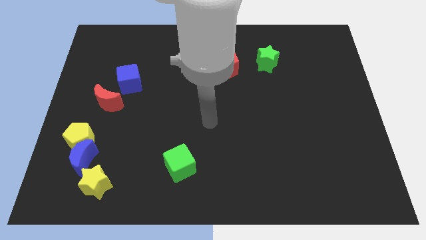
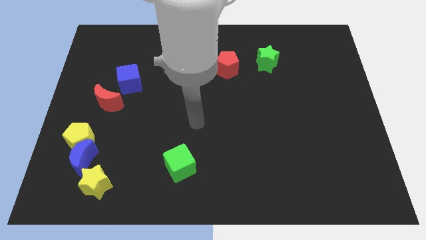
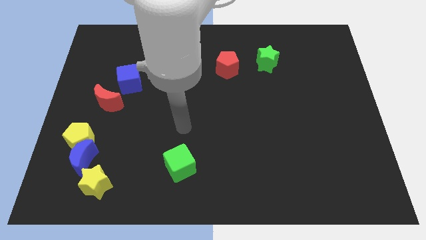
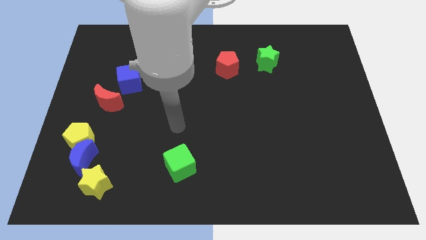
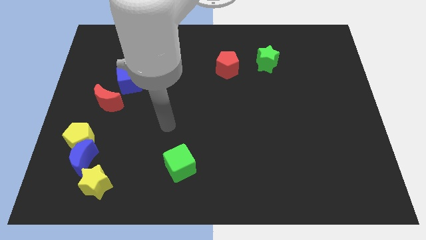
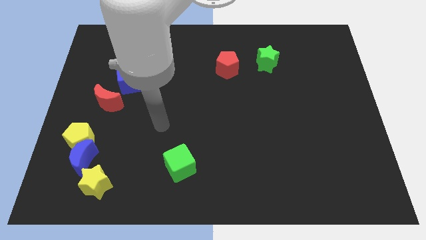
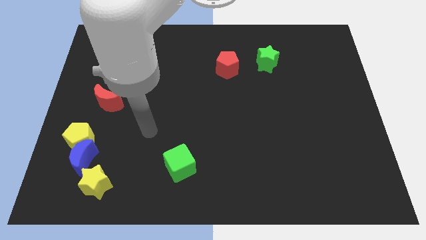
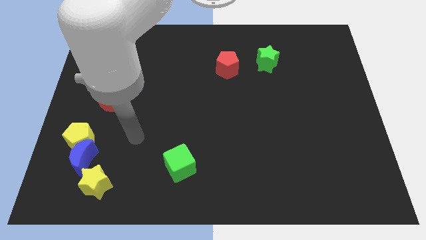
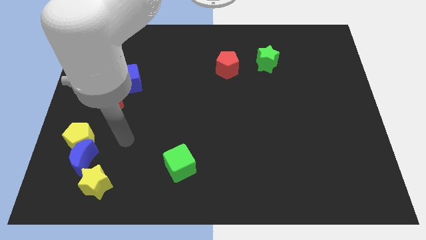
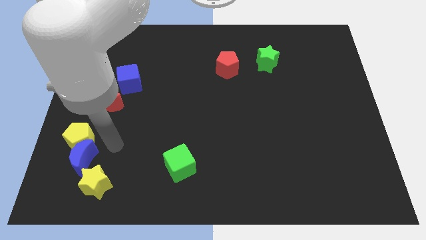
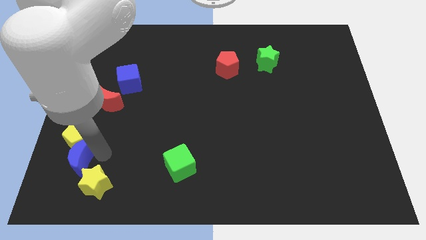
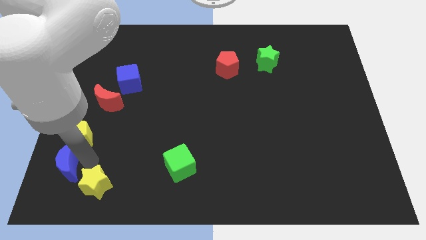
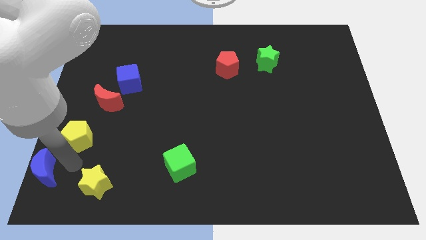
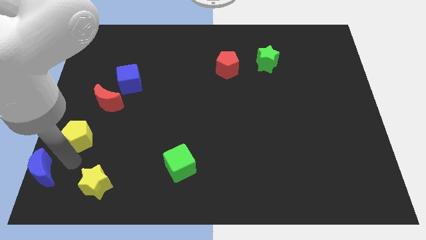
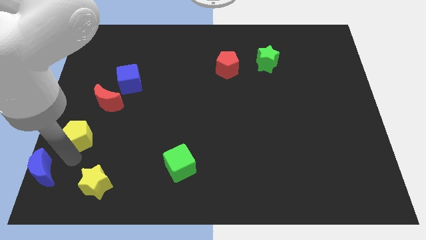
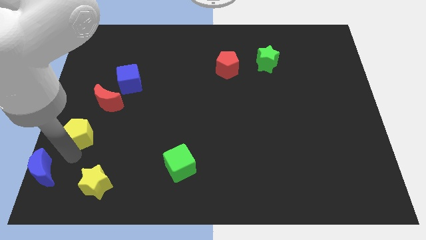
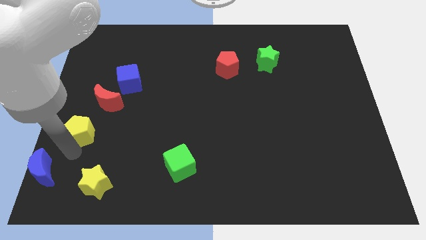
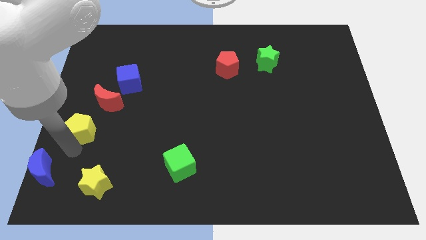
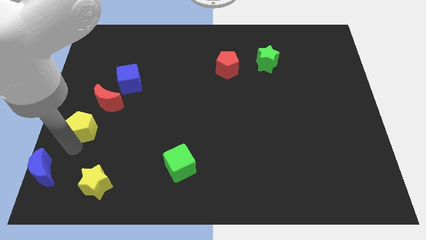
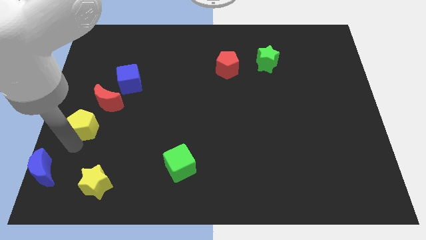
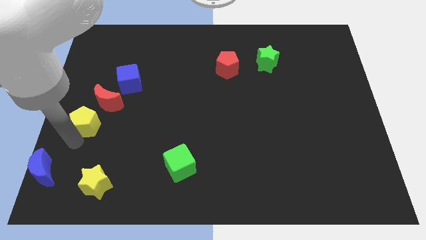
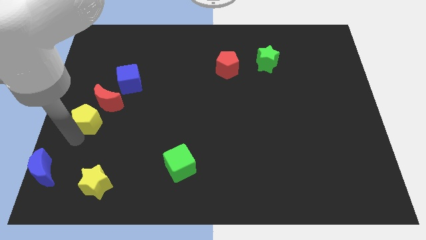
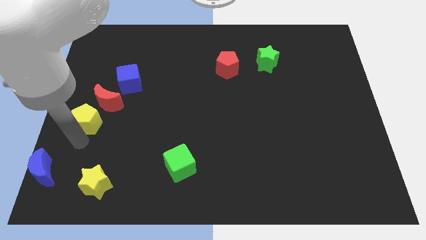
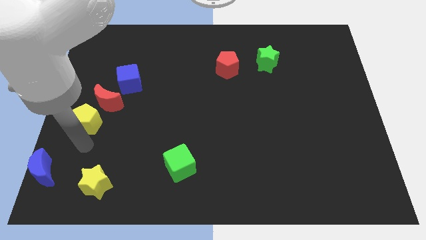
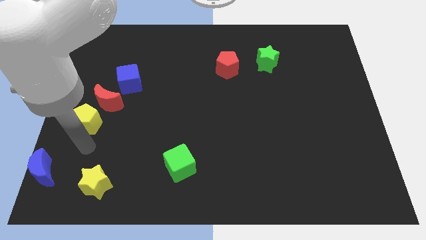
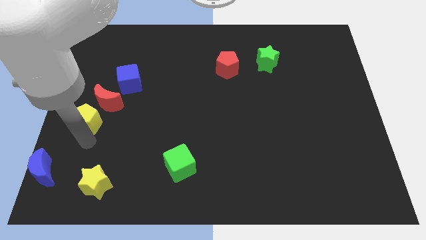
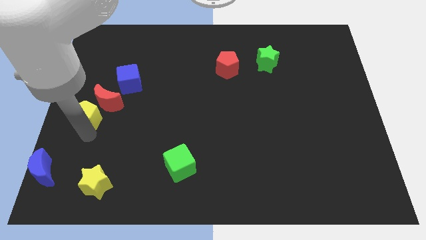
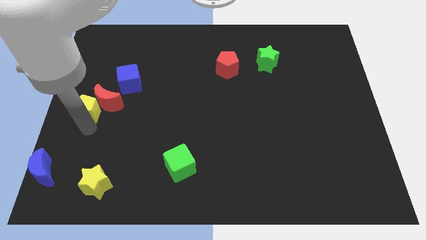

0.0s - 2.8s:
move the yellow pentagon a bit up

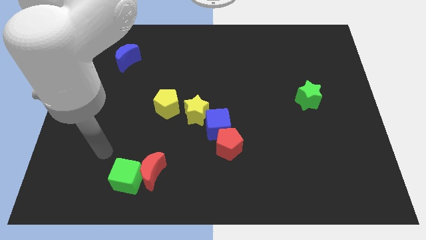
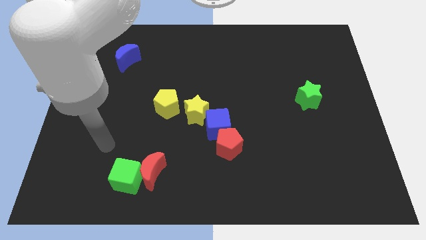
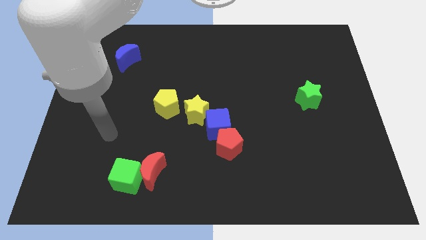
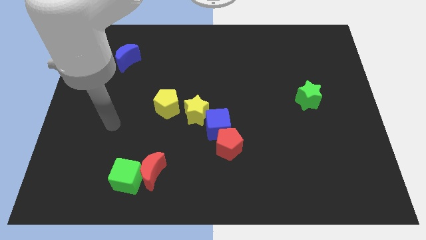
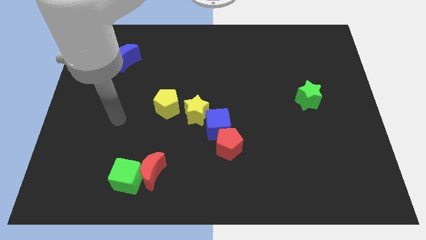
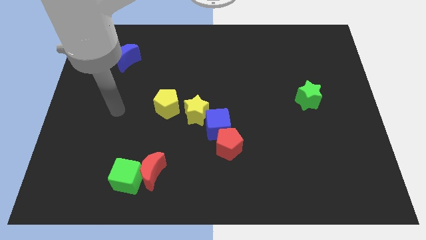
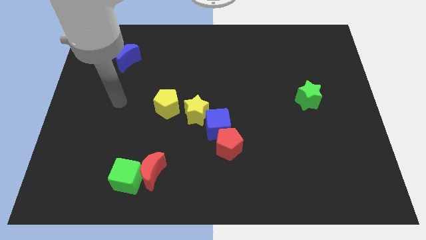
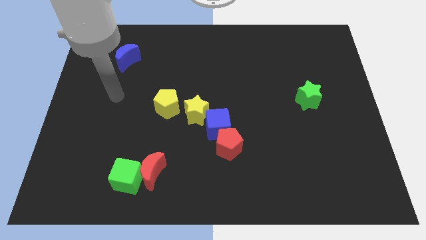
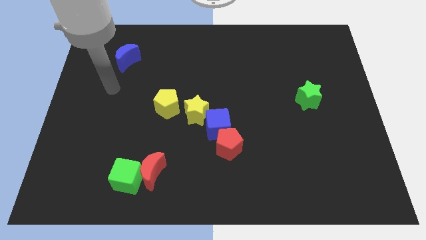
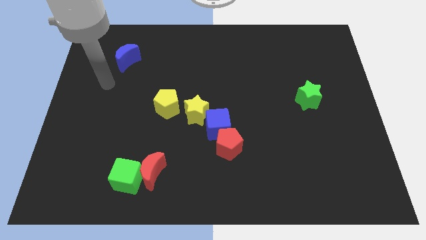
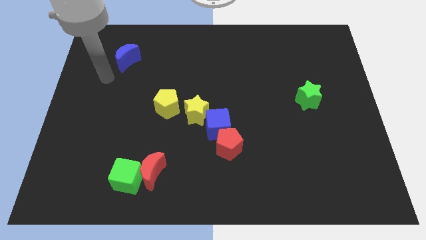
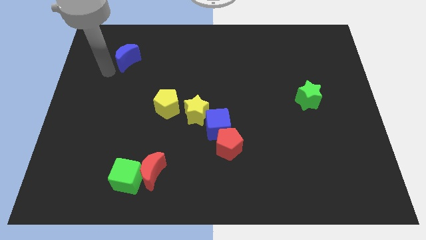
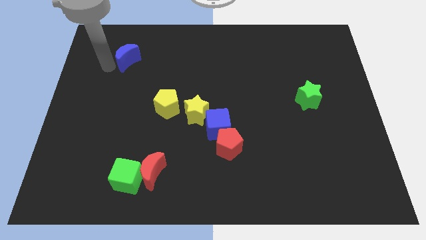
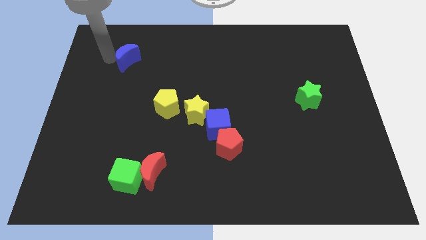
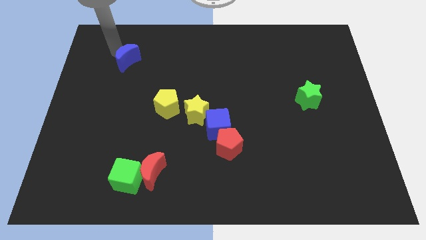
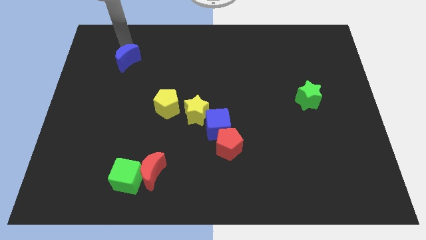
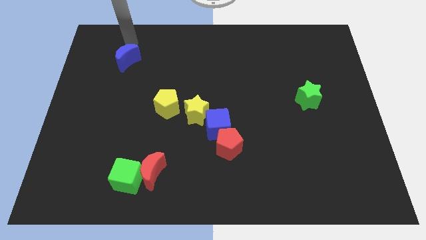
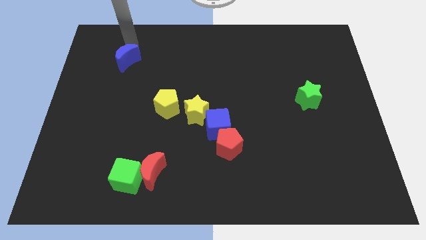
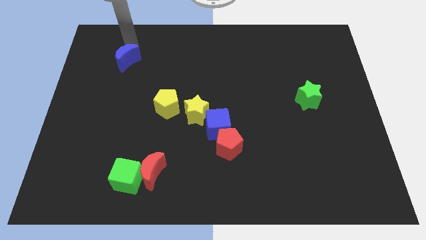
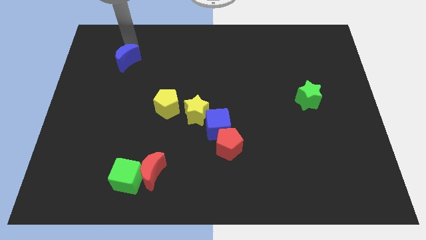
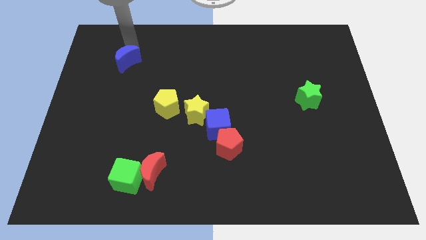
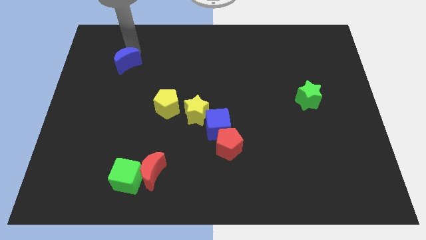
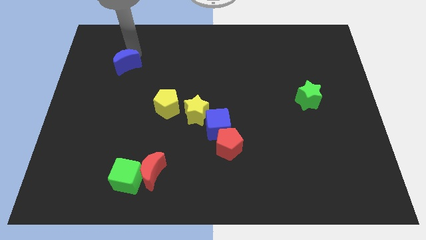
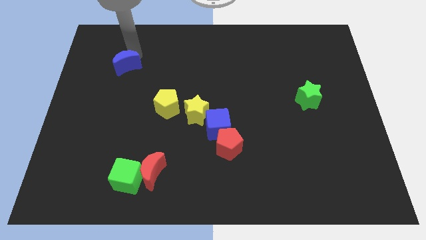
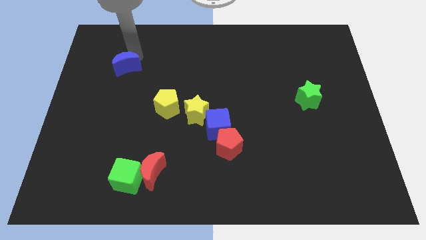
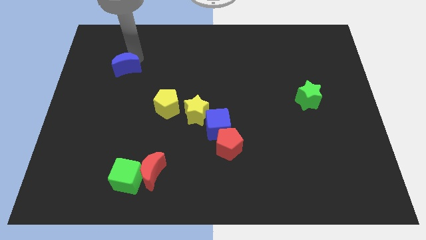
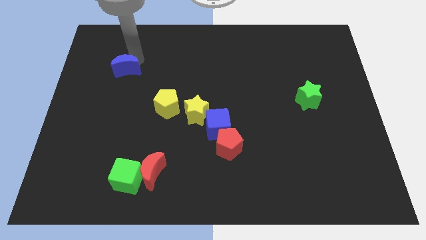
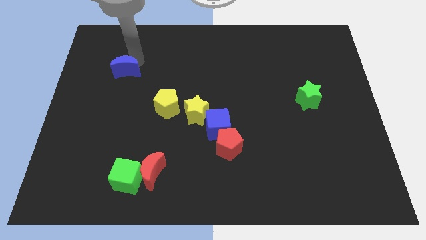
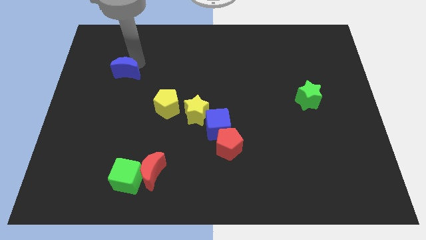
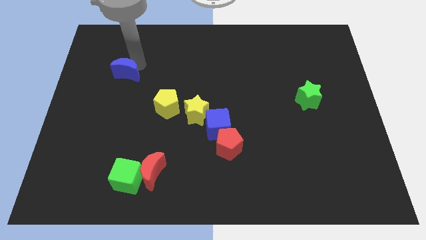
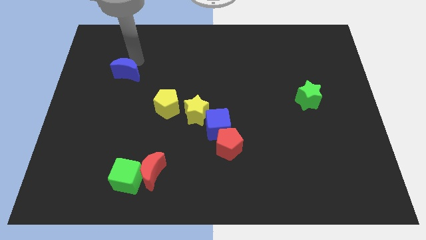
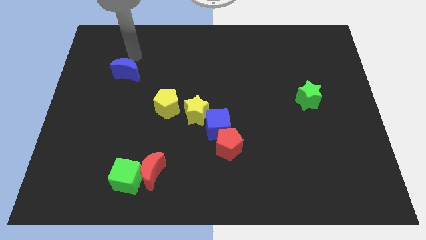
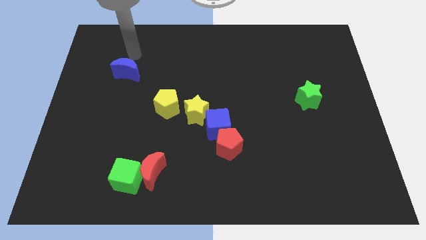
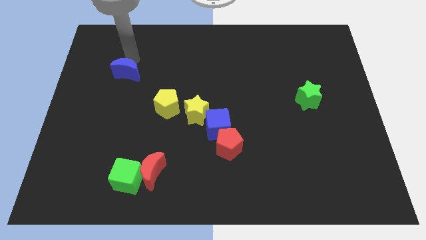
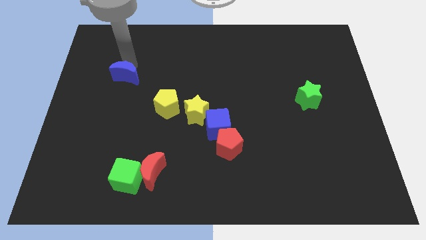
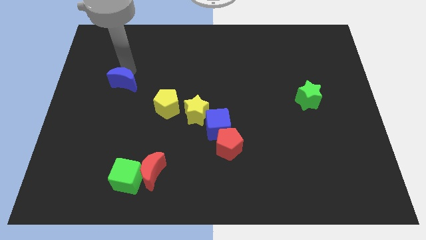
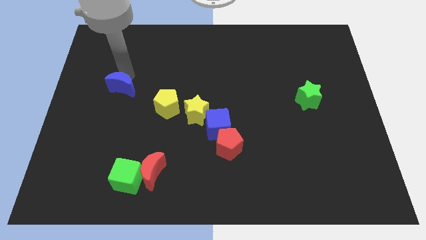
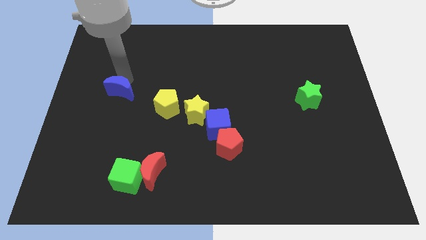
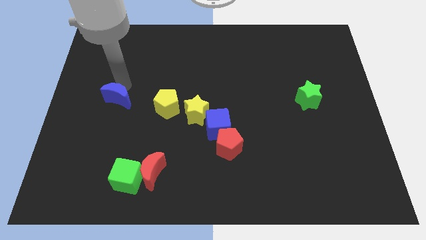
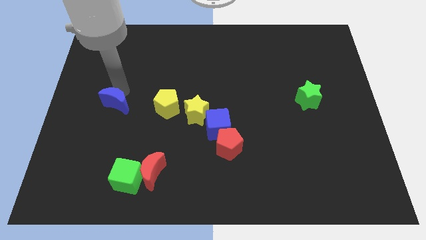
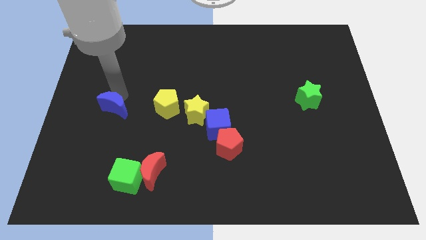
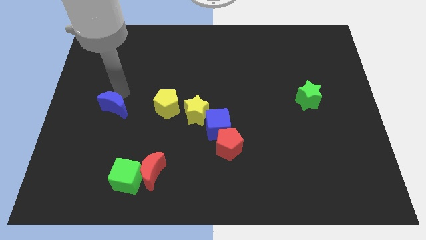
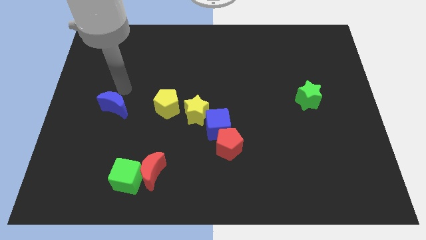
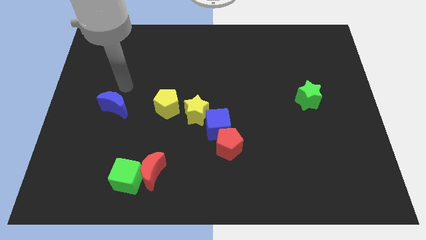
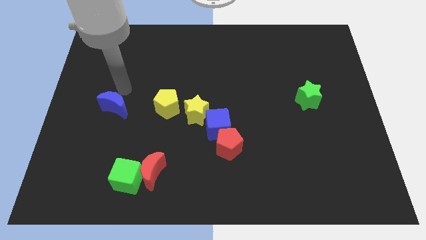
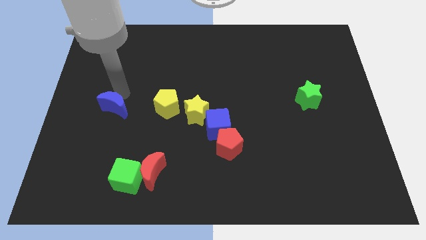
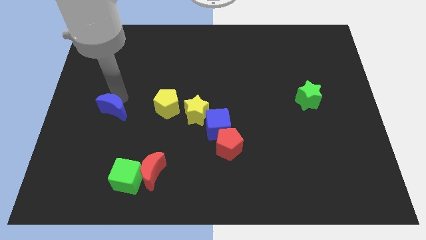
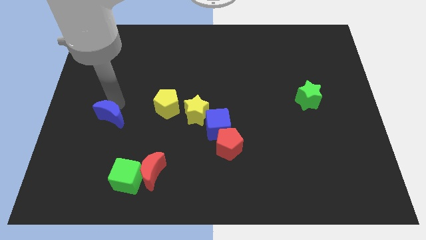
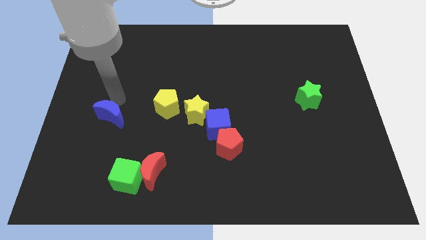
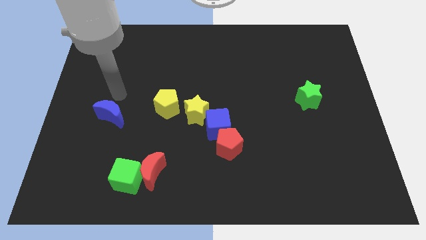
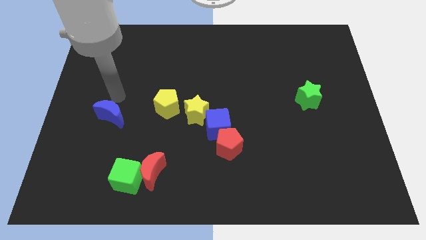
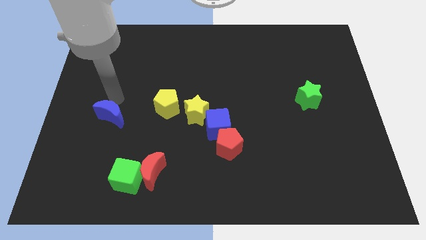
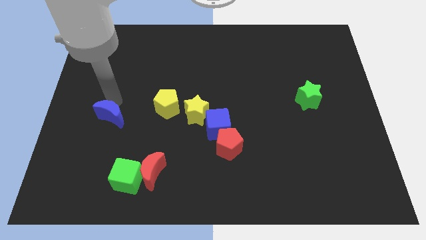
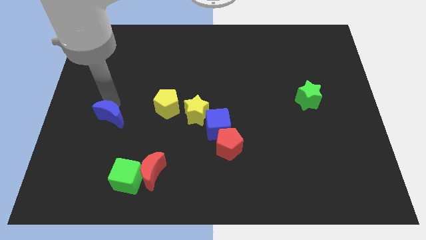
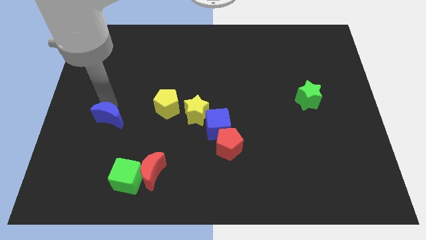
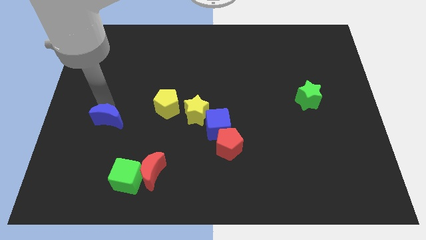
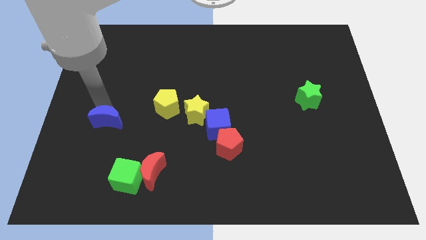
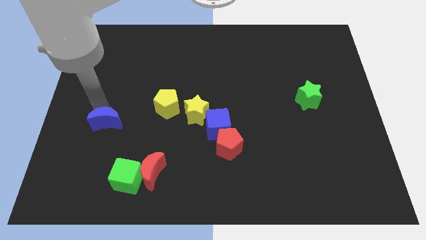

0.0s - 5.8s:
push the blue moon down
